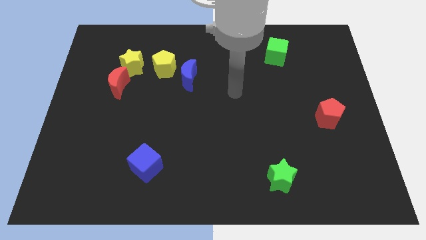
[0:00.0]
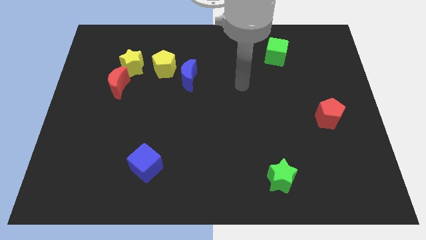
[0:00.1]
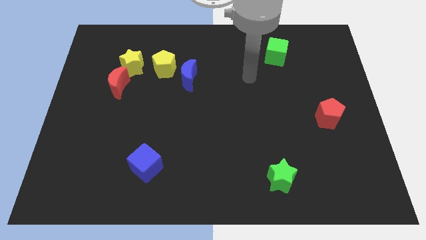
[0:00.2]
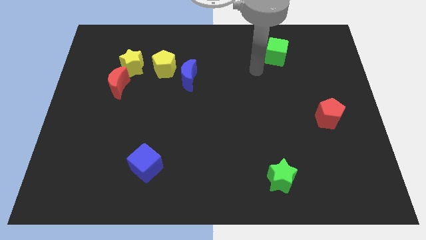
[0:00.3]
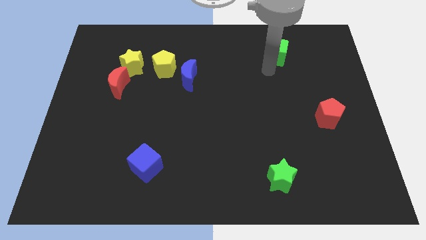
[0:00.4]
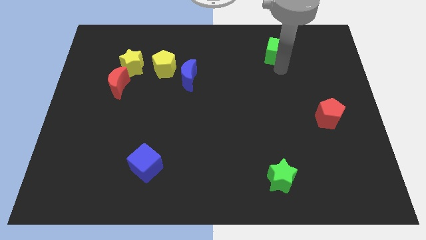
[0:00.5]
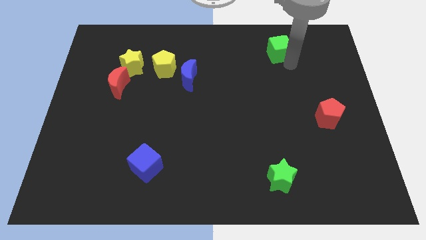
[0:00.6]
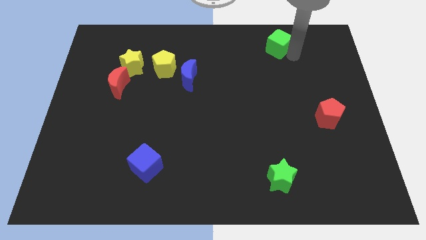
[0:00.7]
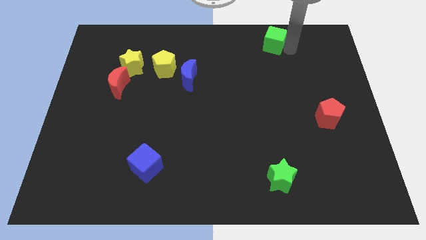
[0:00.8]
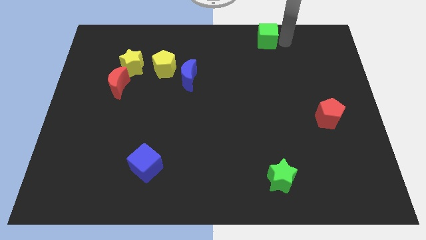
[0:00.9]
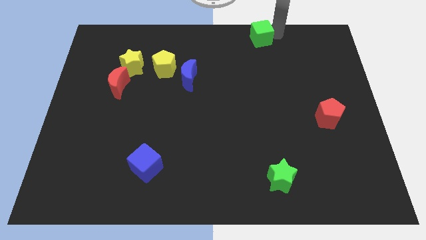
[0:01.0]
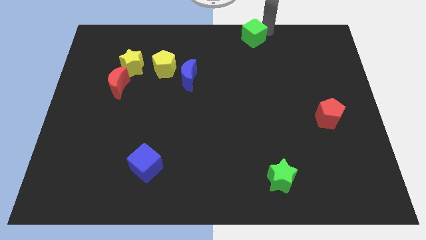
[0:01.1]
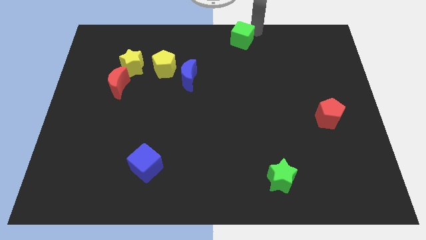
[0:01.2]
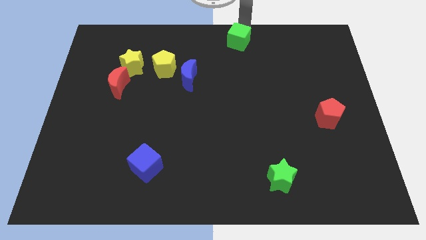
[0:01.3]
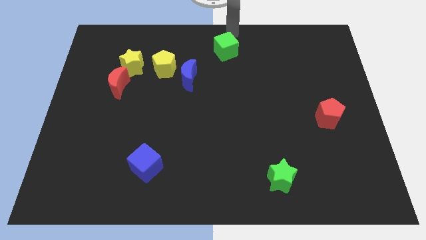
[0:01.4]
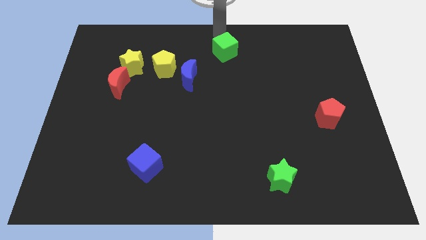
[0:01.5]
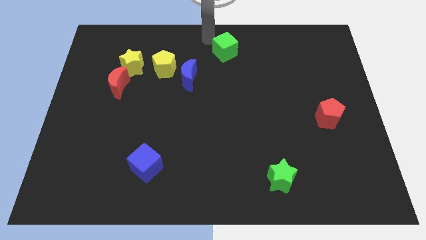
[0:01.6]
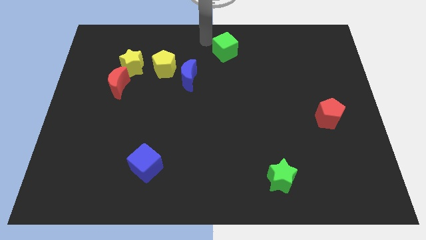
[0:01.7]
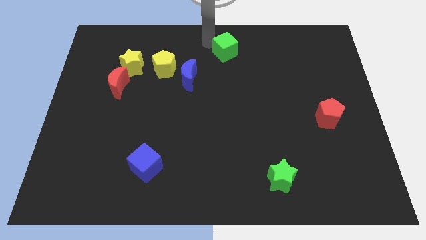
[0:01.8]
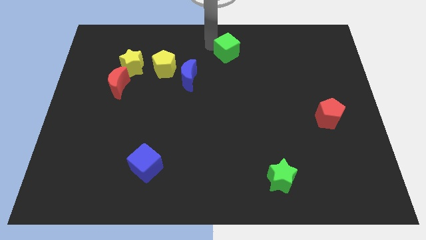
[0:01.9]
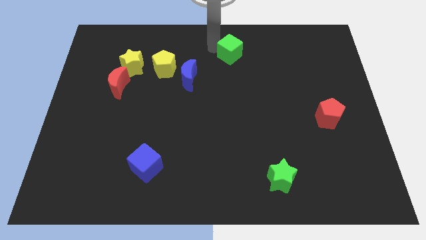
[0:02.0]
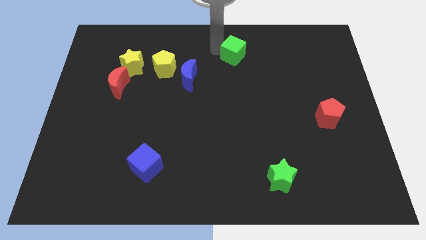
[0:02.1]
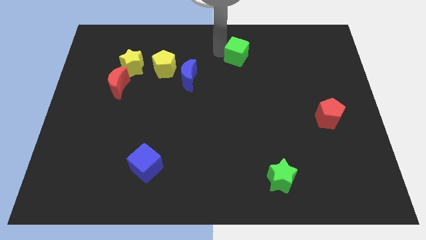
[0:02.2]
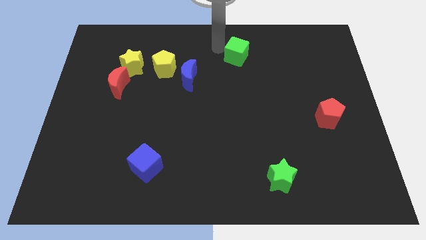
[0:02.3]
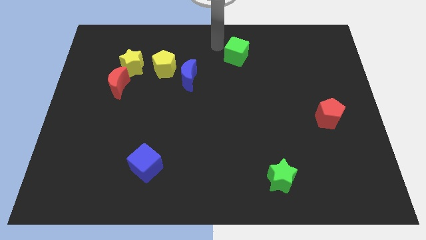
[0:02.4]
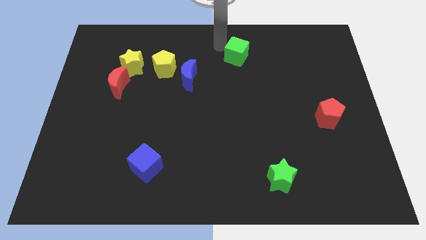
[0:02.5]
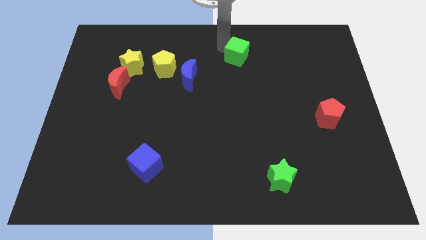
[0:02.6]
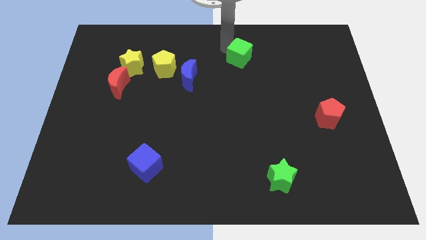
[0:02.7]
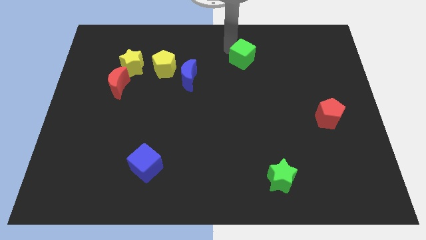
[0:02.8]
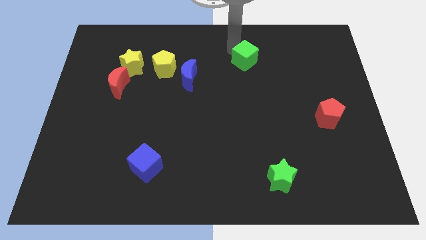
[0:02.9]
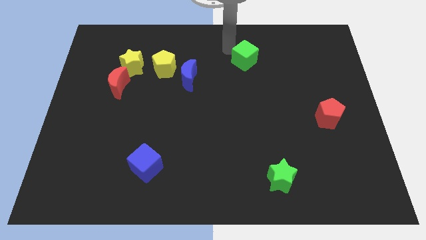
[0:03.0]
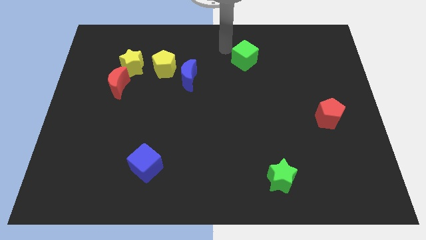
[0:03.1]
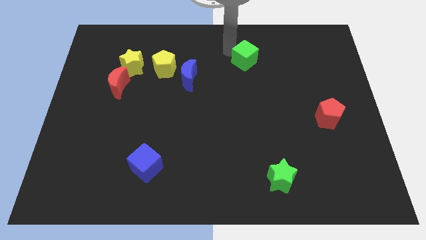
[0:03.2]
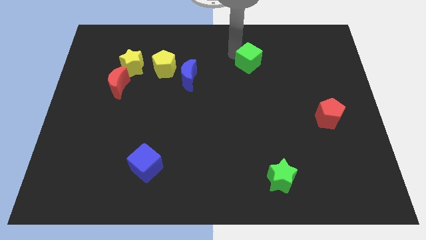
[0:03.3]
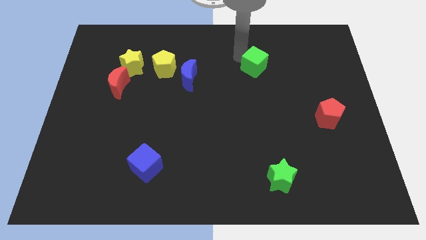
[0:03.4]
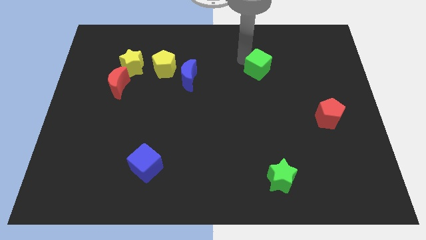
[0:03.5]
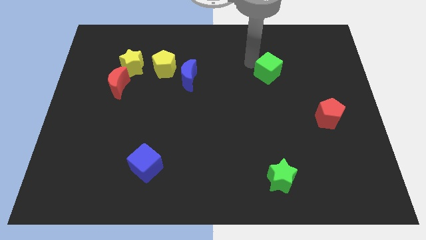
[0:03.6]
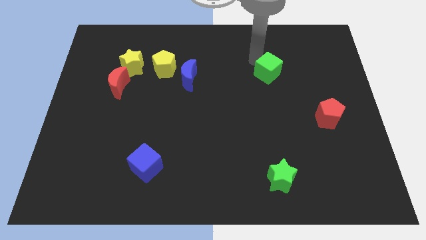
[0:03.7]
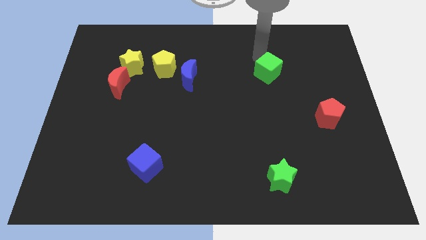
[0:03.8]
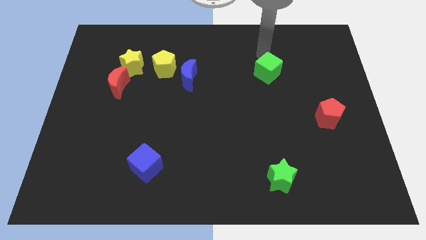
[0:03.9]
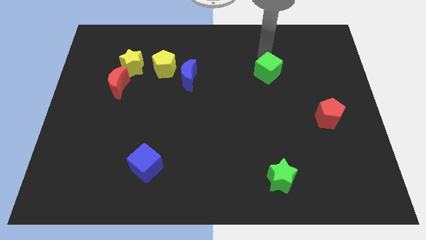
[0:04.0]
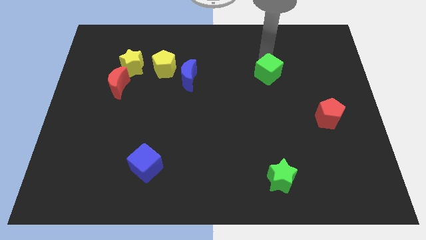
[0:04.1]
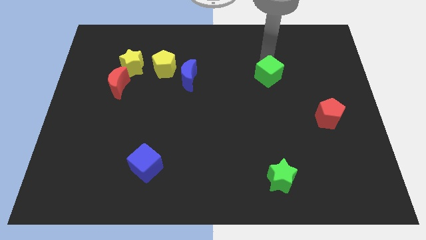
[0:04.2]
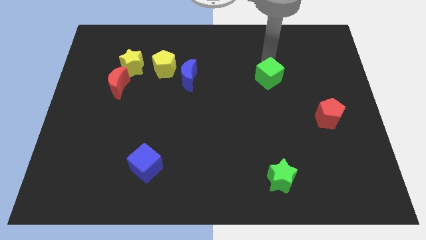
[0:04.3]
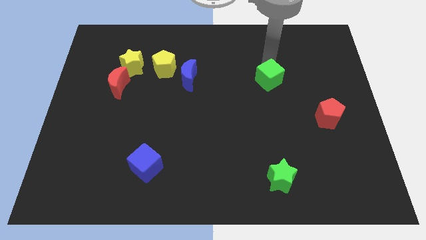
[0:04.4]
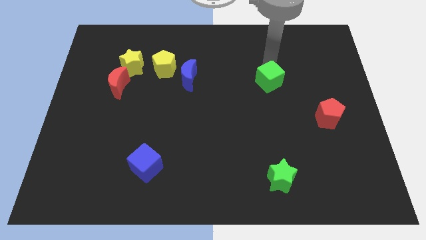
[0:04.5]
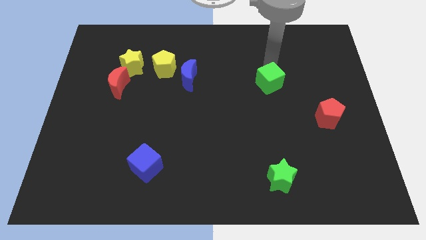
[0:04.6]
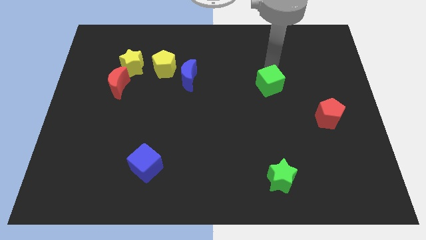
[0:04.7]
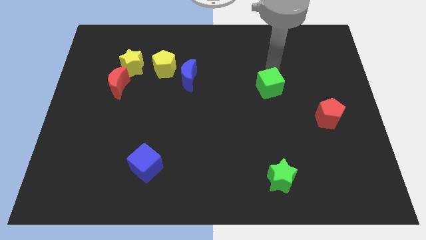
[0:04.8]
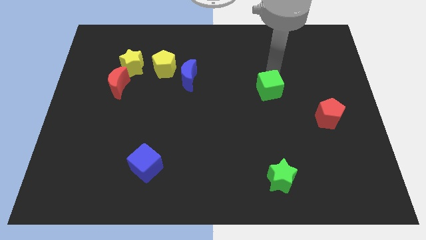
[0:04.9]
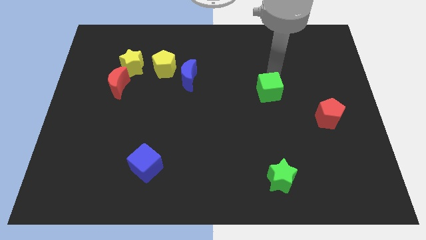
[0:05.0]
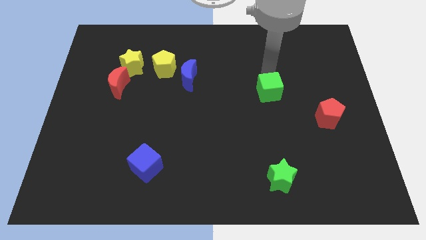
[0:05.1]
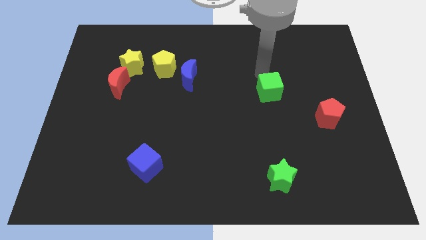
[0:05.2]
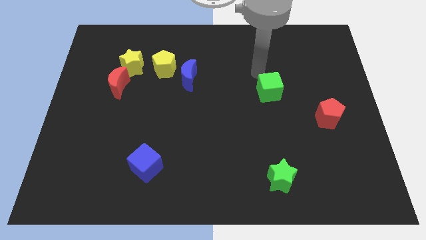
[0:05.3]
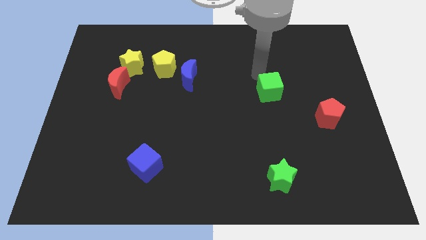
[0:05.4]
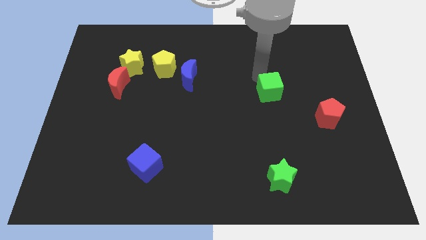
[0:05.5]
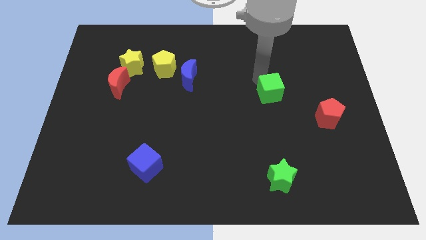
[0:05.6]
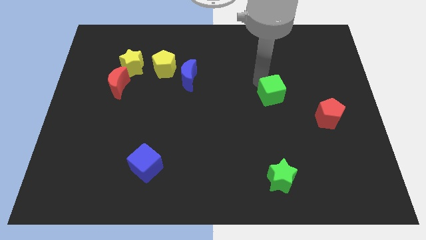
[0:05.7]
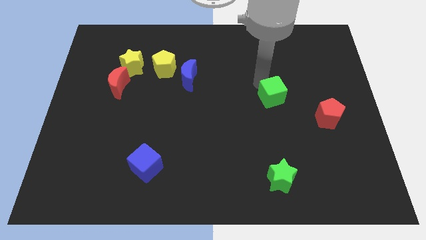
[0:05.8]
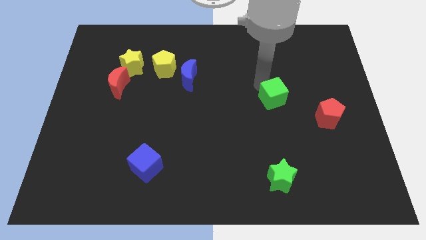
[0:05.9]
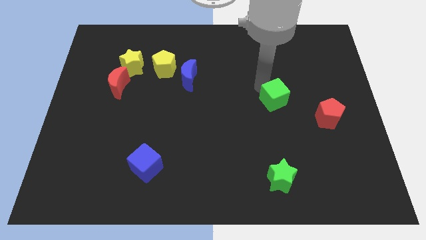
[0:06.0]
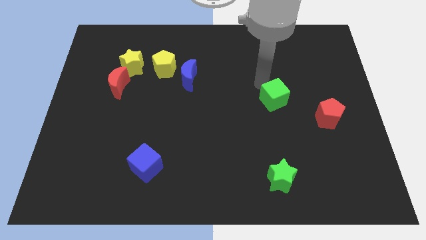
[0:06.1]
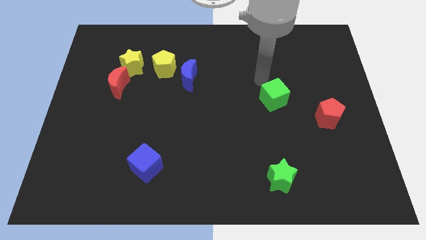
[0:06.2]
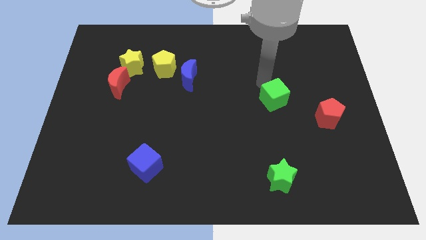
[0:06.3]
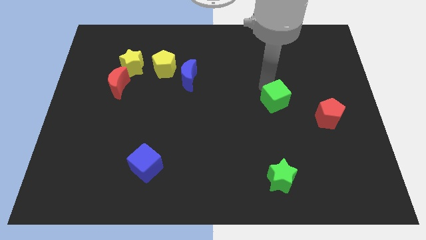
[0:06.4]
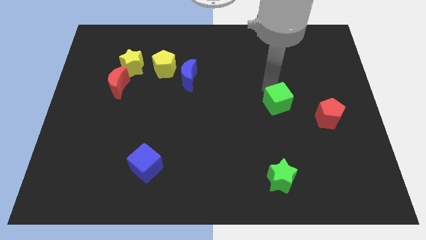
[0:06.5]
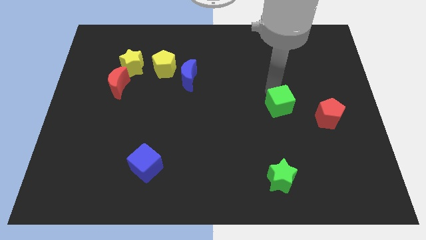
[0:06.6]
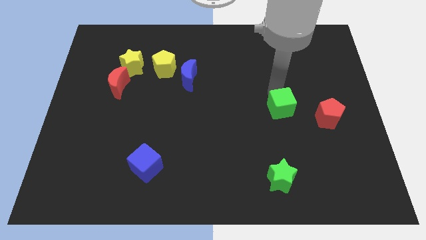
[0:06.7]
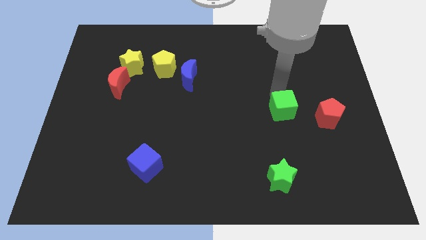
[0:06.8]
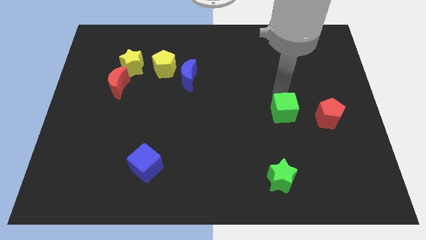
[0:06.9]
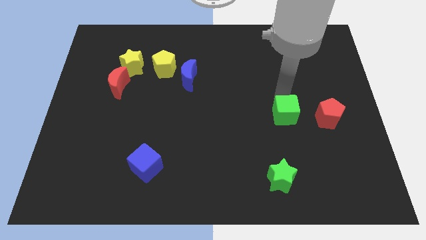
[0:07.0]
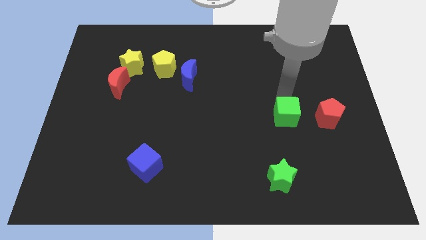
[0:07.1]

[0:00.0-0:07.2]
slide the green cube downwards

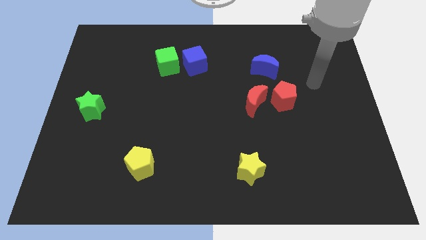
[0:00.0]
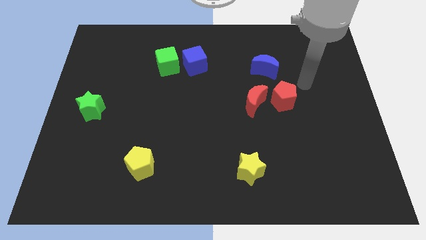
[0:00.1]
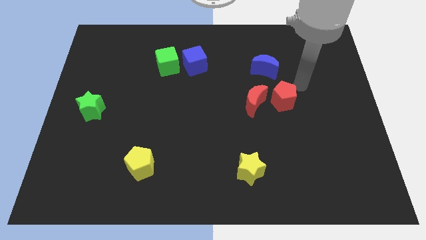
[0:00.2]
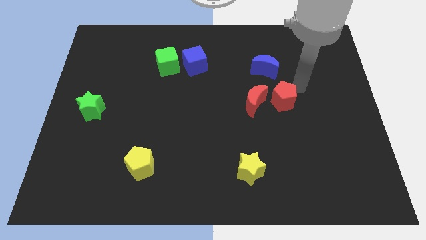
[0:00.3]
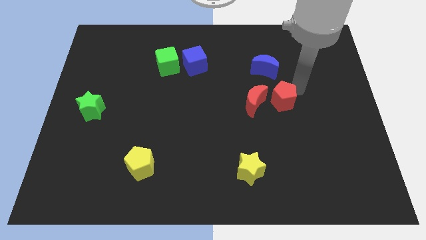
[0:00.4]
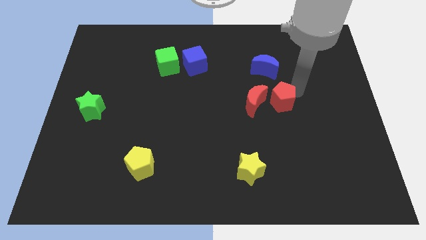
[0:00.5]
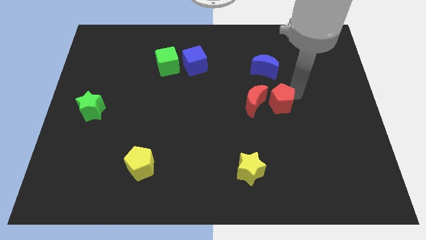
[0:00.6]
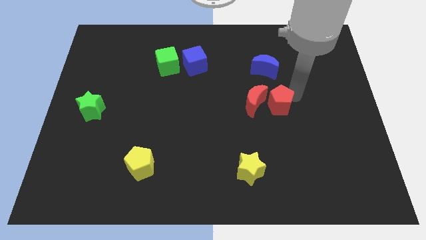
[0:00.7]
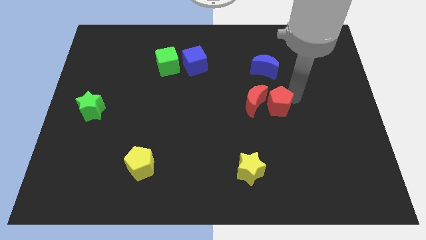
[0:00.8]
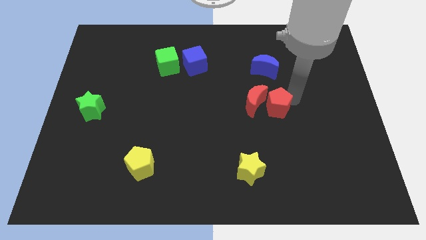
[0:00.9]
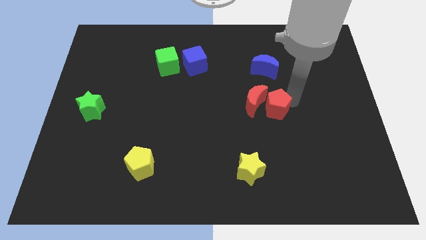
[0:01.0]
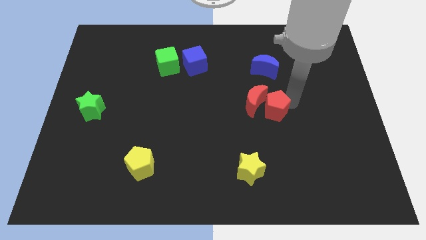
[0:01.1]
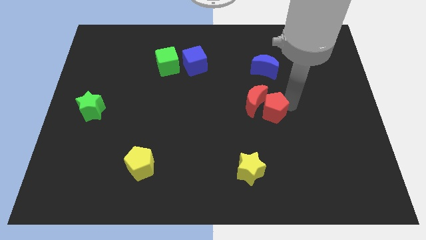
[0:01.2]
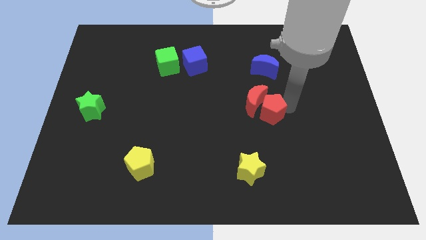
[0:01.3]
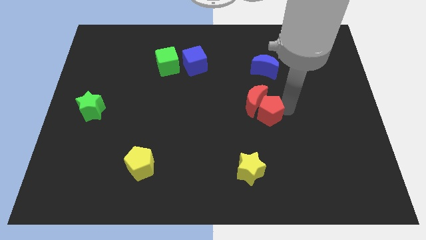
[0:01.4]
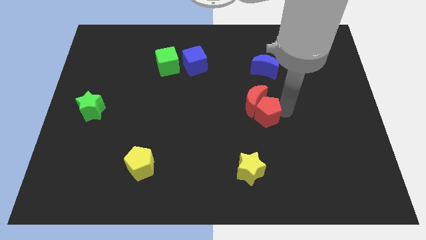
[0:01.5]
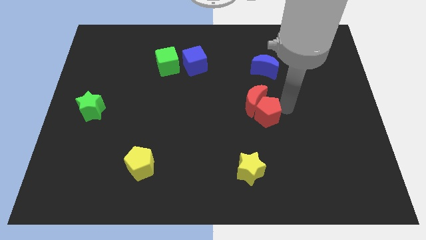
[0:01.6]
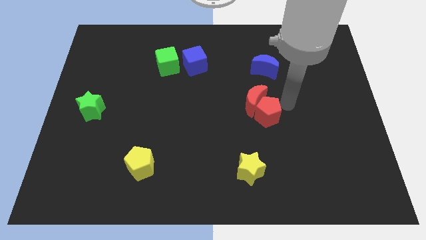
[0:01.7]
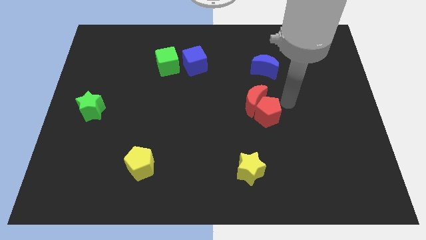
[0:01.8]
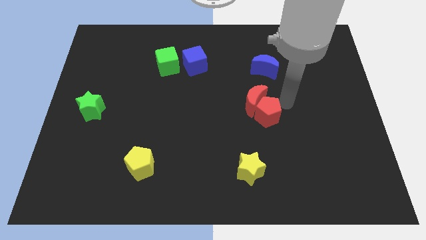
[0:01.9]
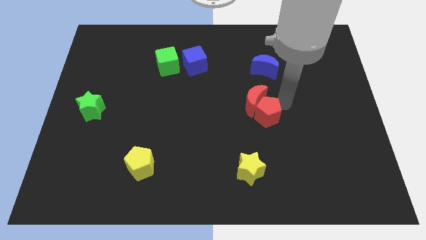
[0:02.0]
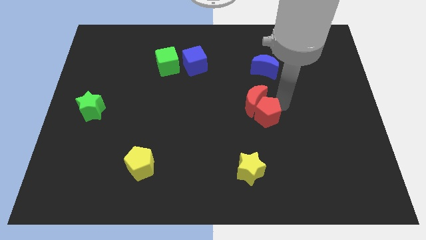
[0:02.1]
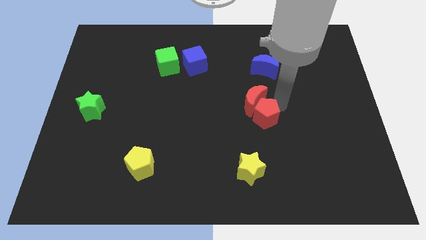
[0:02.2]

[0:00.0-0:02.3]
push the red pentagon diagonally down and to the left slightly
